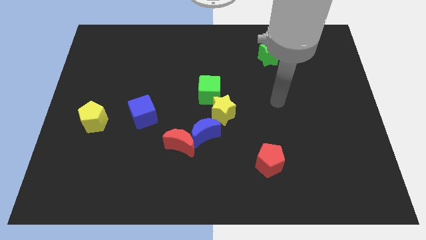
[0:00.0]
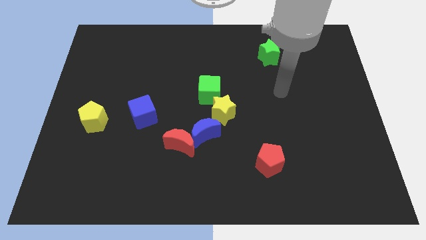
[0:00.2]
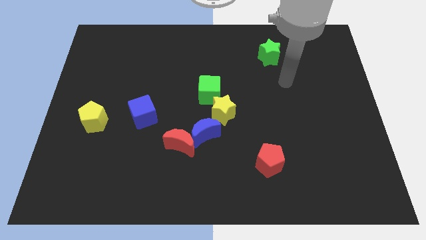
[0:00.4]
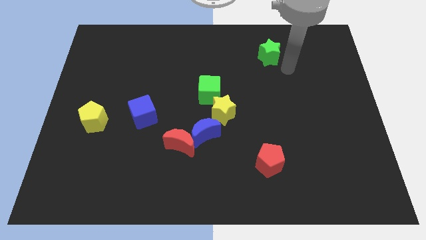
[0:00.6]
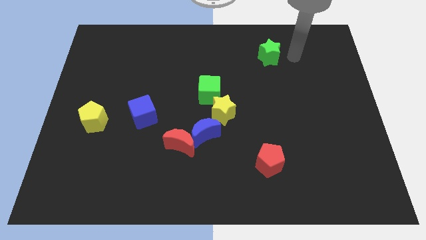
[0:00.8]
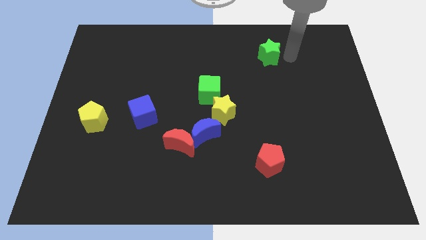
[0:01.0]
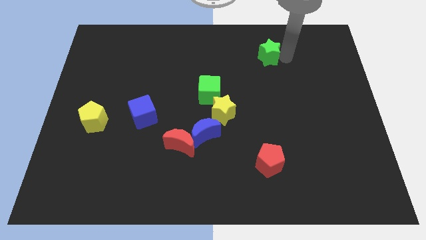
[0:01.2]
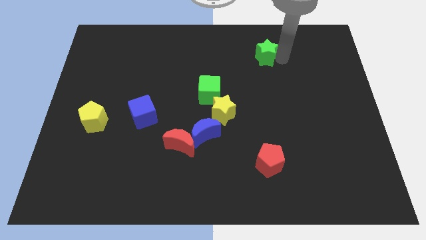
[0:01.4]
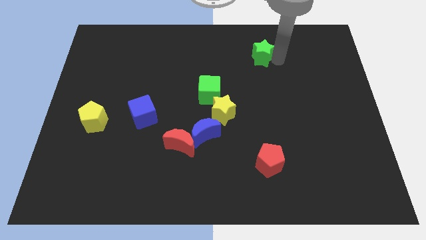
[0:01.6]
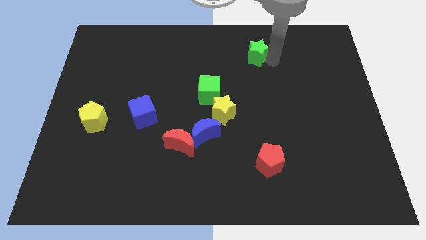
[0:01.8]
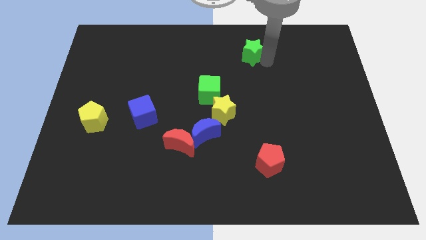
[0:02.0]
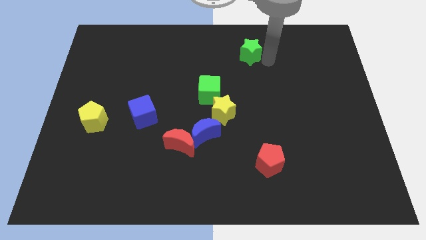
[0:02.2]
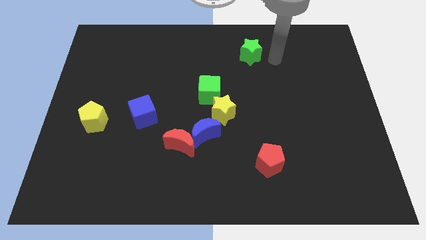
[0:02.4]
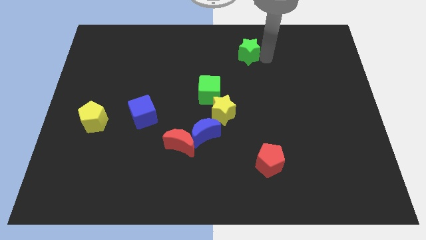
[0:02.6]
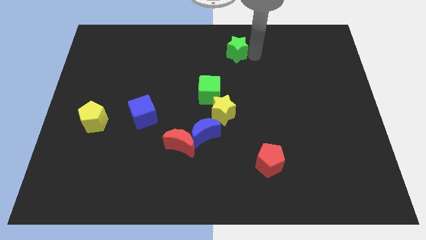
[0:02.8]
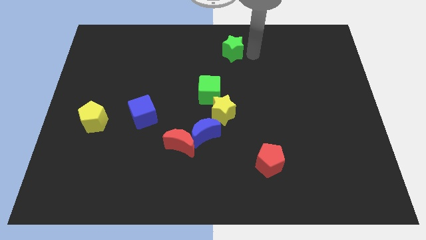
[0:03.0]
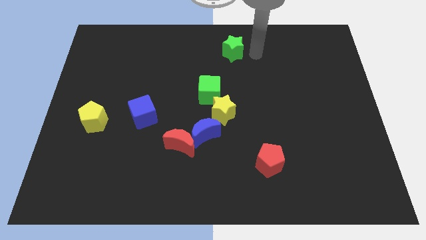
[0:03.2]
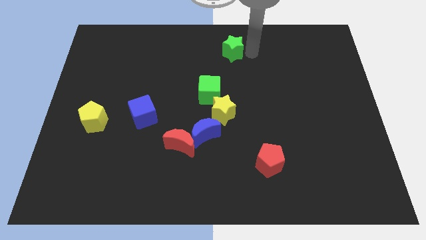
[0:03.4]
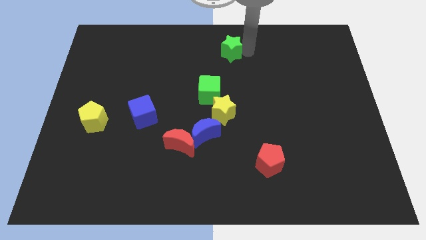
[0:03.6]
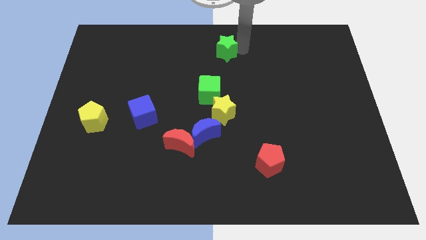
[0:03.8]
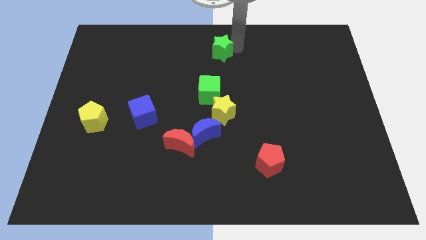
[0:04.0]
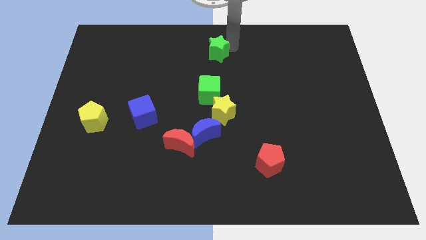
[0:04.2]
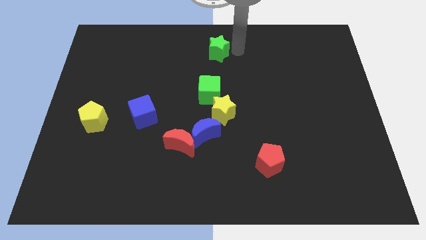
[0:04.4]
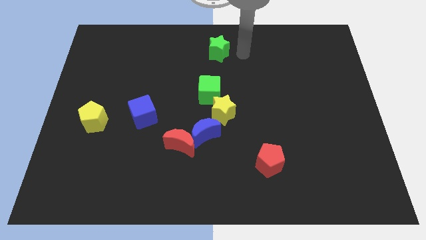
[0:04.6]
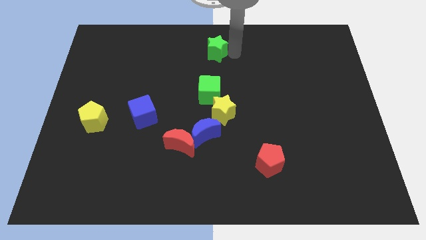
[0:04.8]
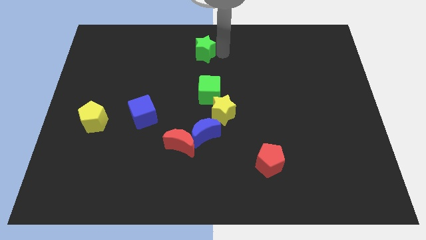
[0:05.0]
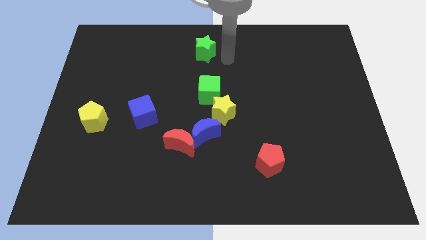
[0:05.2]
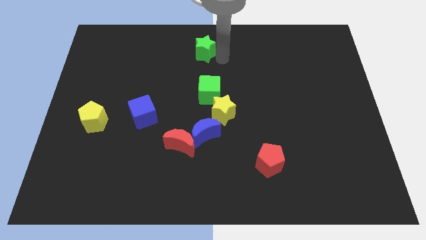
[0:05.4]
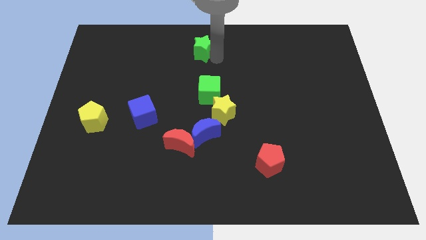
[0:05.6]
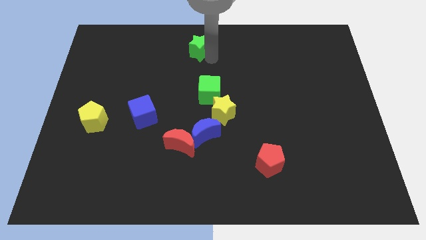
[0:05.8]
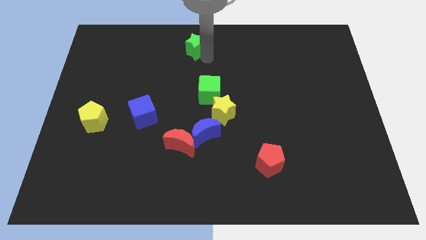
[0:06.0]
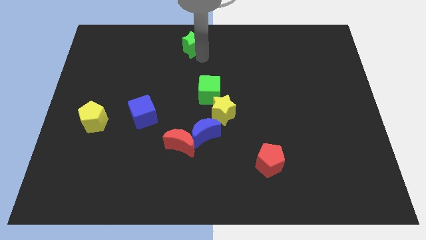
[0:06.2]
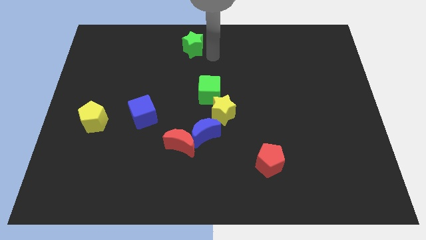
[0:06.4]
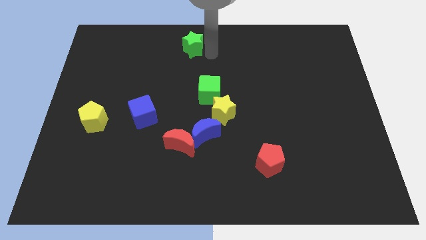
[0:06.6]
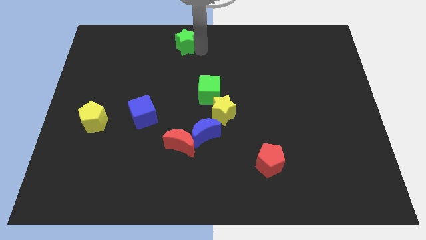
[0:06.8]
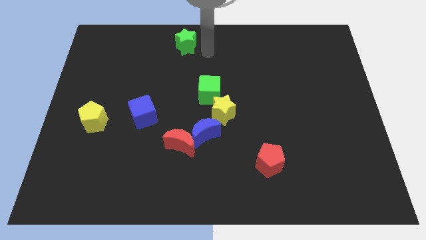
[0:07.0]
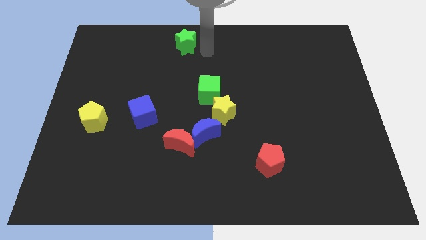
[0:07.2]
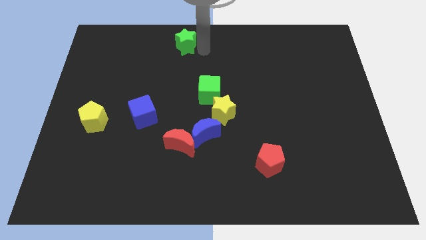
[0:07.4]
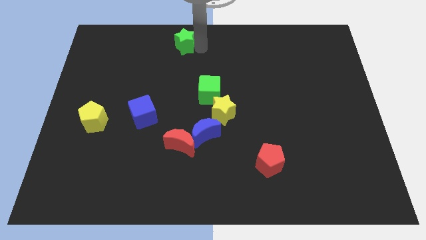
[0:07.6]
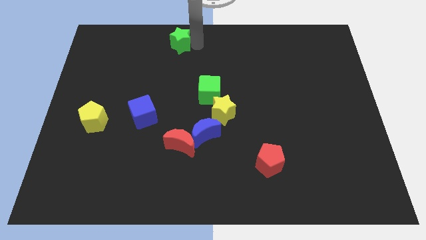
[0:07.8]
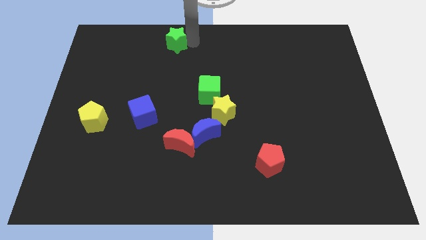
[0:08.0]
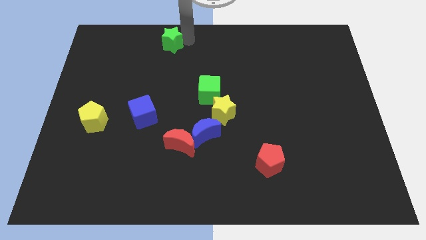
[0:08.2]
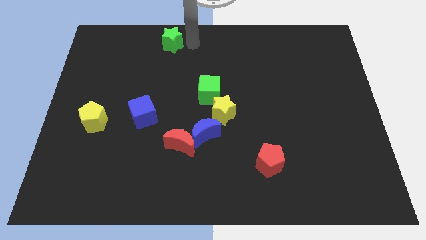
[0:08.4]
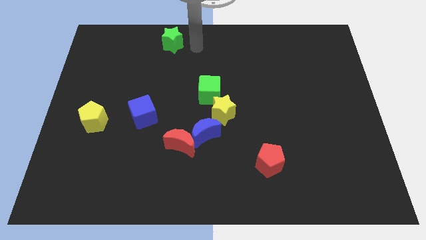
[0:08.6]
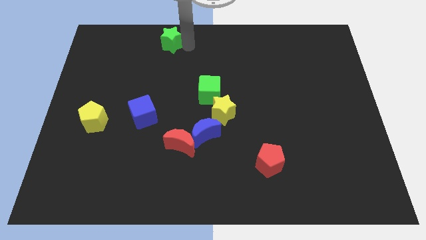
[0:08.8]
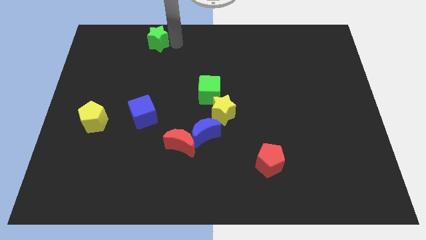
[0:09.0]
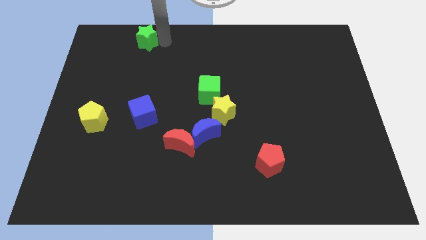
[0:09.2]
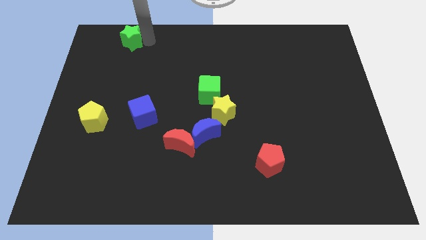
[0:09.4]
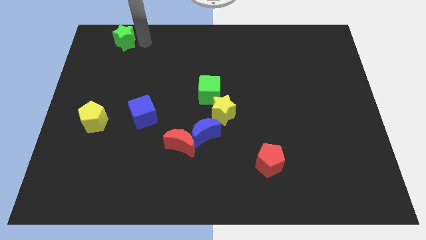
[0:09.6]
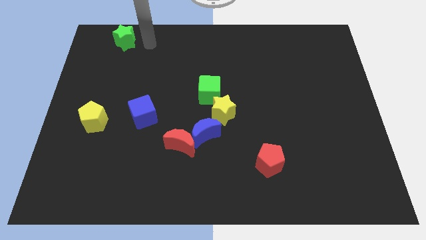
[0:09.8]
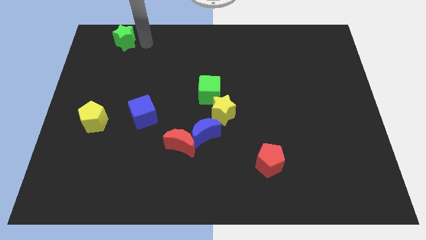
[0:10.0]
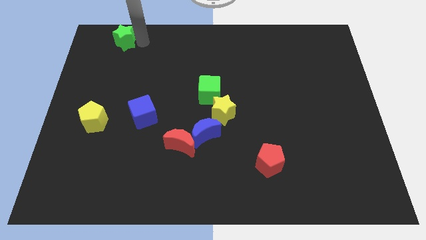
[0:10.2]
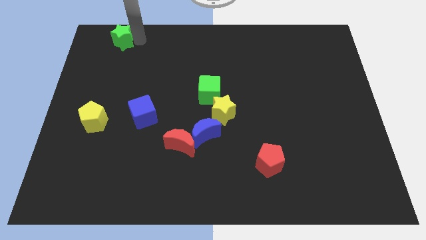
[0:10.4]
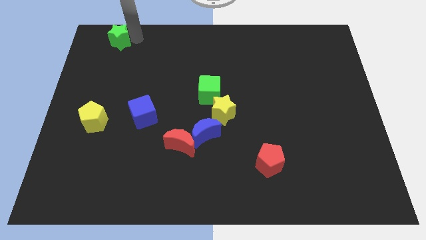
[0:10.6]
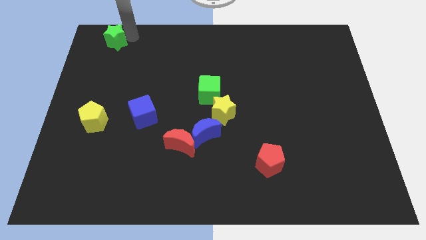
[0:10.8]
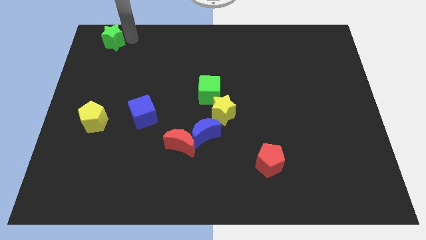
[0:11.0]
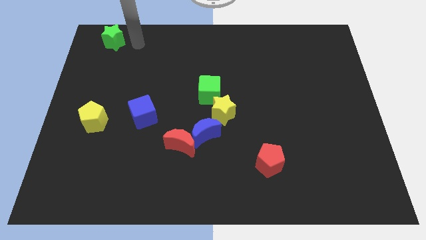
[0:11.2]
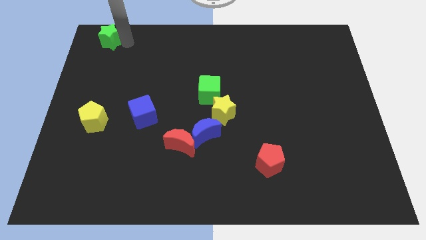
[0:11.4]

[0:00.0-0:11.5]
push the green star to the top left corner

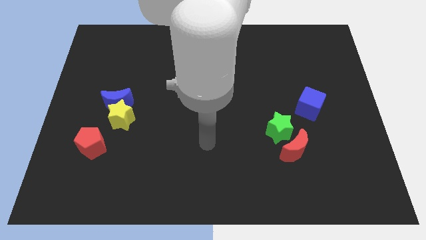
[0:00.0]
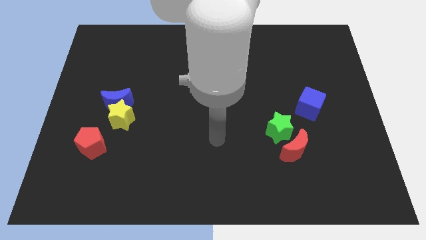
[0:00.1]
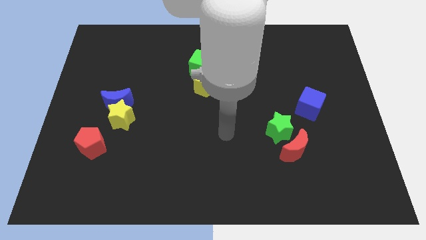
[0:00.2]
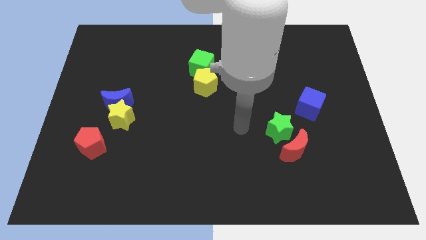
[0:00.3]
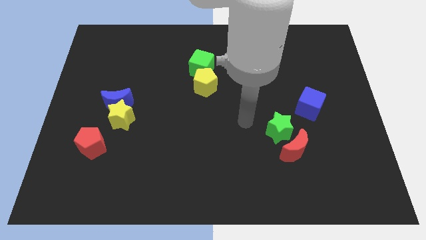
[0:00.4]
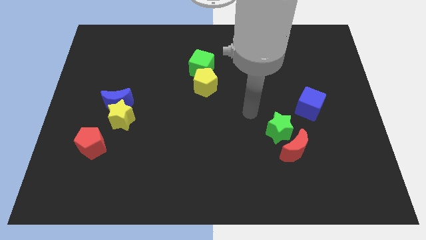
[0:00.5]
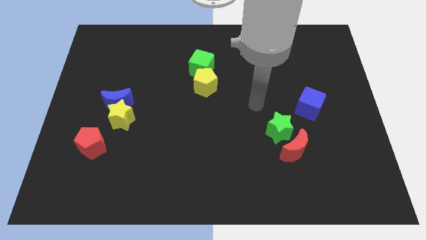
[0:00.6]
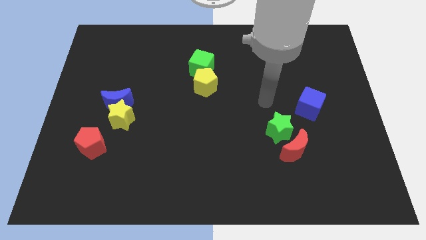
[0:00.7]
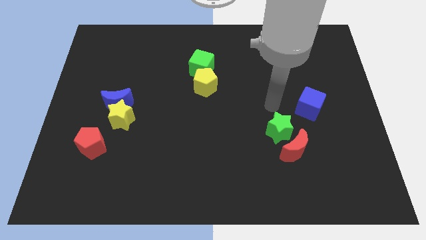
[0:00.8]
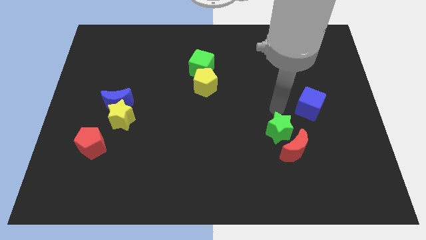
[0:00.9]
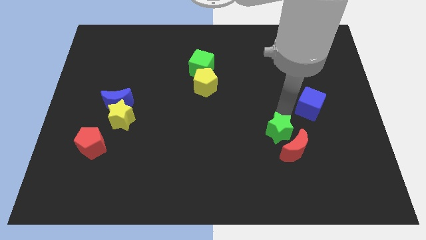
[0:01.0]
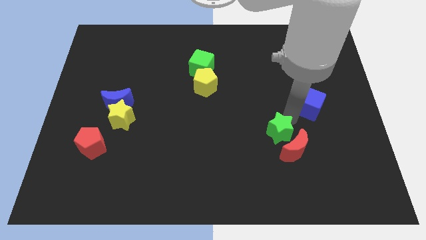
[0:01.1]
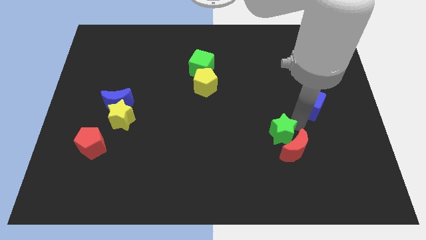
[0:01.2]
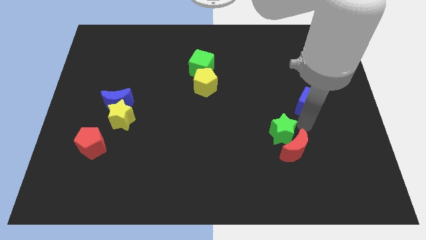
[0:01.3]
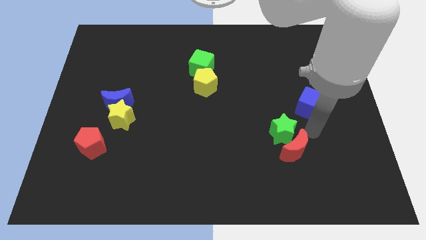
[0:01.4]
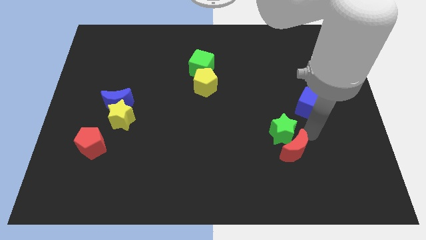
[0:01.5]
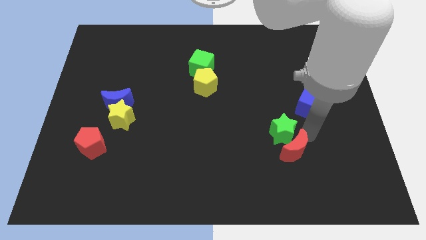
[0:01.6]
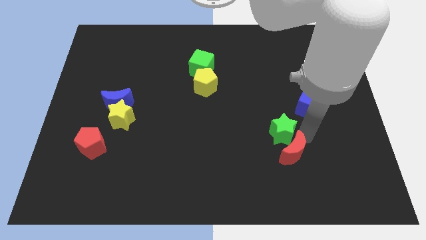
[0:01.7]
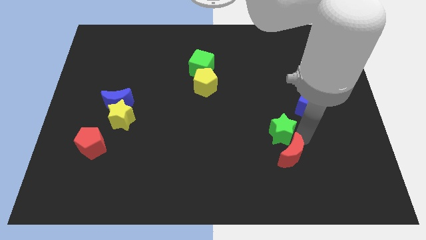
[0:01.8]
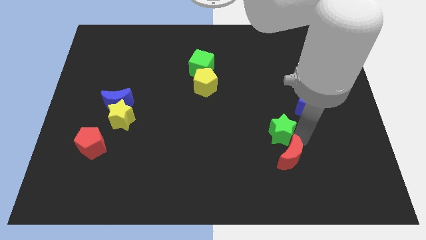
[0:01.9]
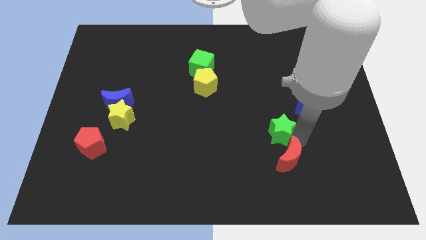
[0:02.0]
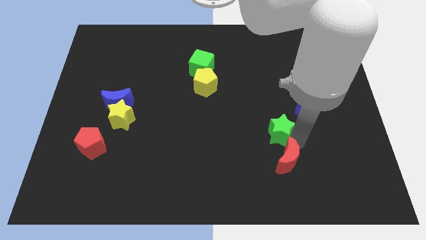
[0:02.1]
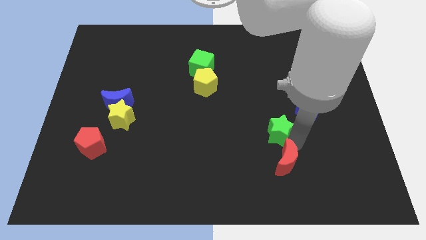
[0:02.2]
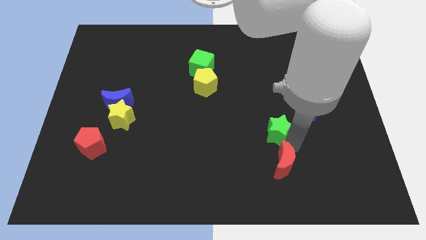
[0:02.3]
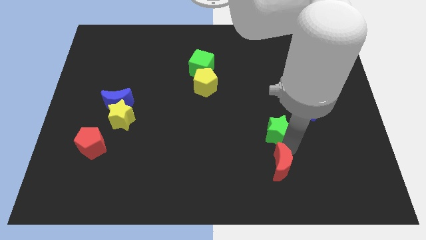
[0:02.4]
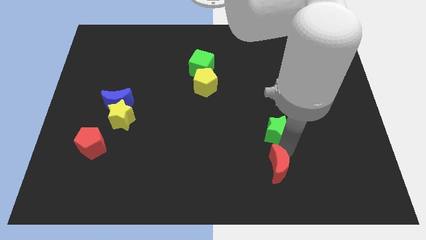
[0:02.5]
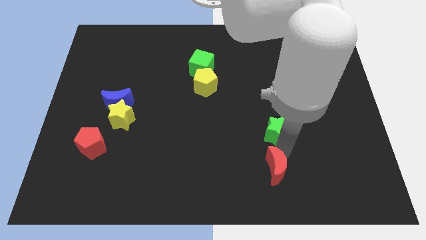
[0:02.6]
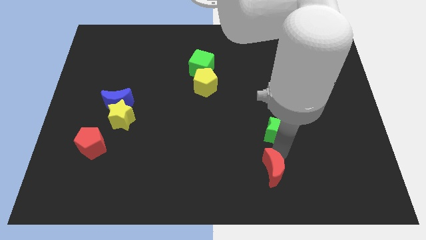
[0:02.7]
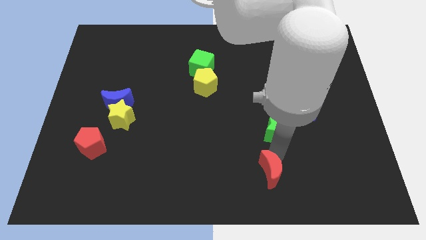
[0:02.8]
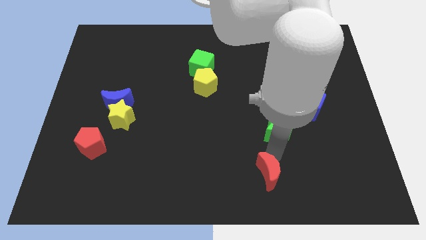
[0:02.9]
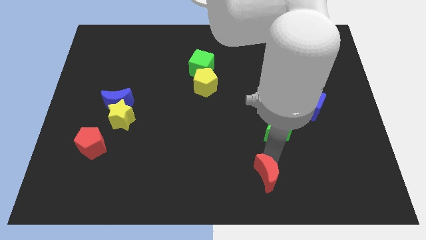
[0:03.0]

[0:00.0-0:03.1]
put the red moon to the bottom
